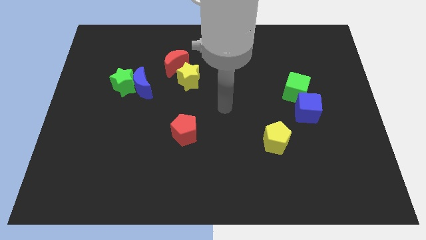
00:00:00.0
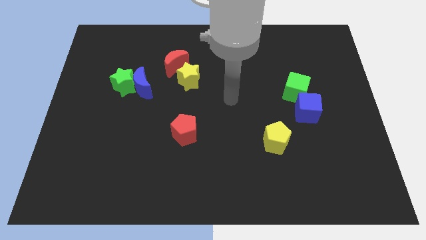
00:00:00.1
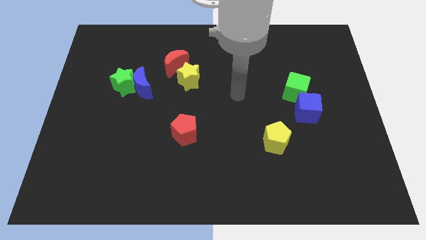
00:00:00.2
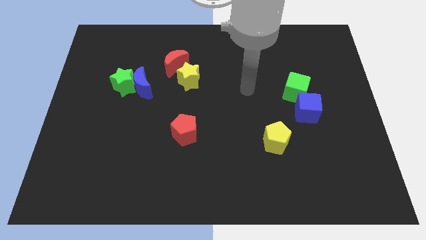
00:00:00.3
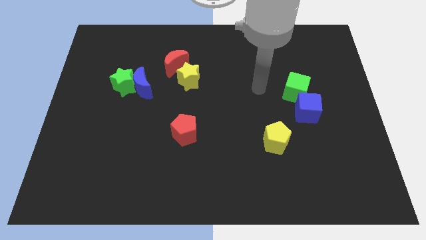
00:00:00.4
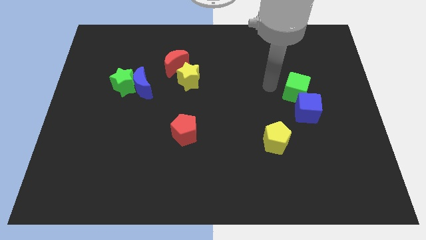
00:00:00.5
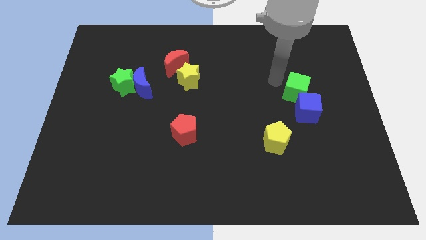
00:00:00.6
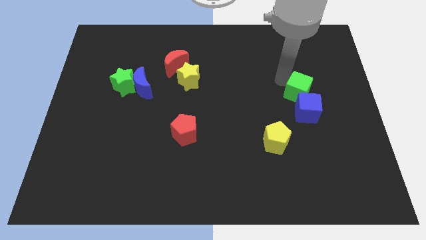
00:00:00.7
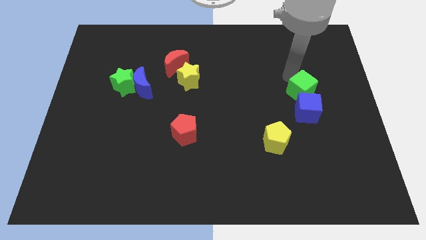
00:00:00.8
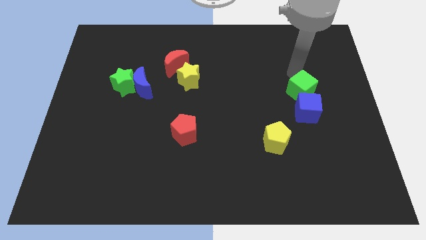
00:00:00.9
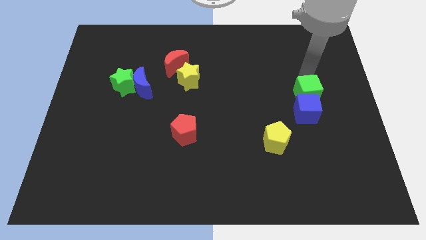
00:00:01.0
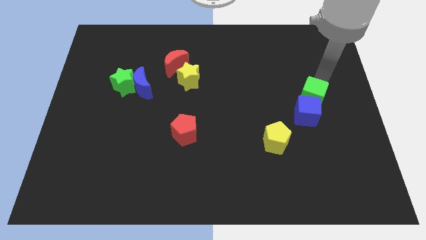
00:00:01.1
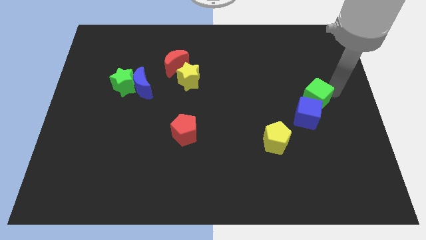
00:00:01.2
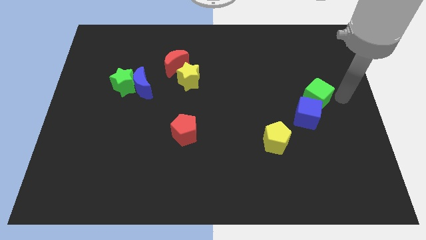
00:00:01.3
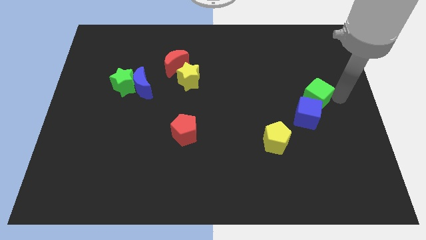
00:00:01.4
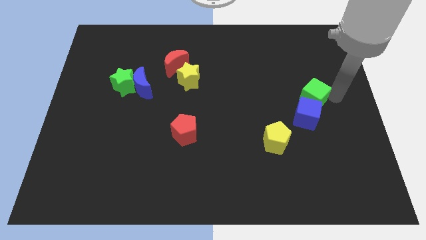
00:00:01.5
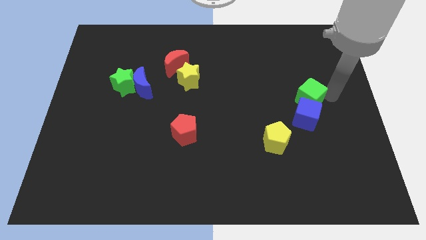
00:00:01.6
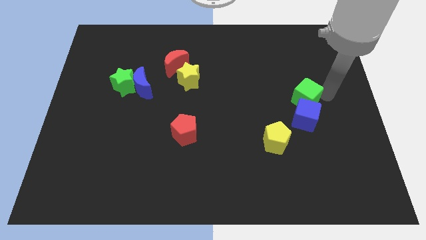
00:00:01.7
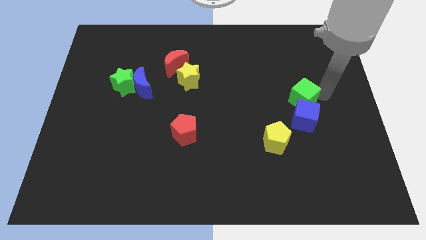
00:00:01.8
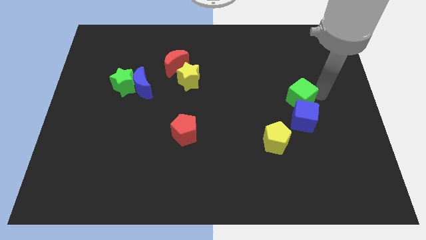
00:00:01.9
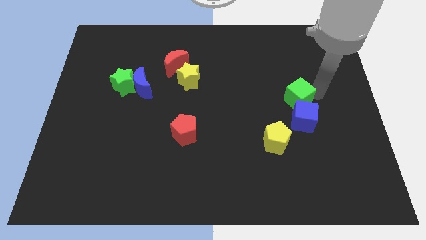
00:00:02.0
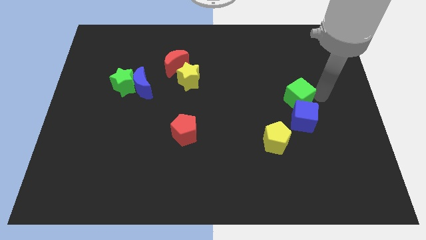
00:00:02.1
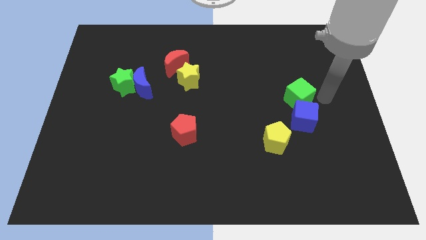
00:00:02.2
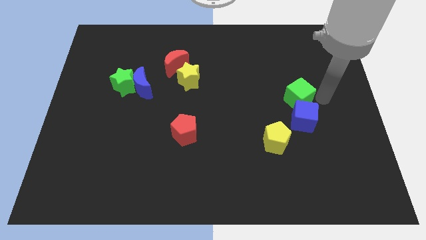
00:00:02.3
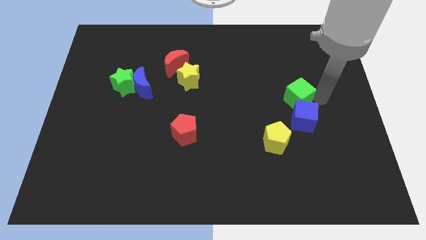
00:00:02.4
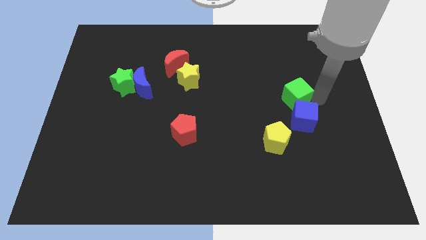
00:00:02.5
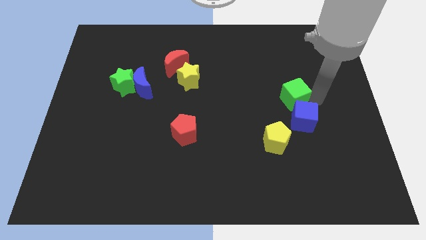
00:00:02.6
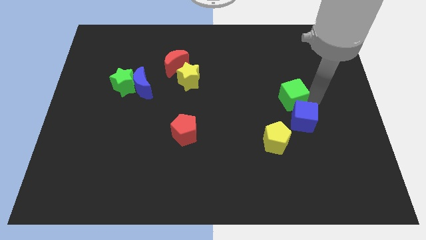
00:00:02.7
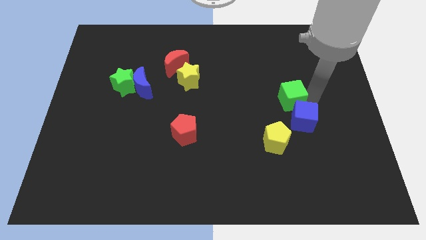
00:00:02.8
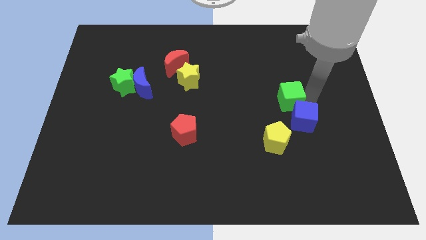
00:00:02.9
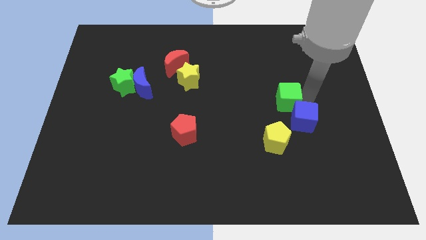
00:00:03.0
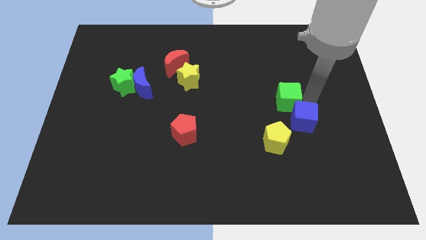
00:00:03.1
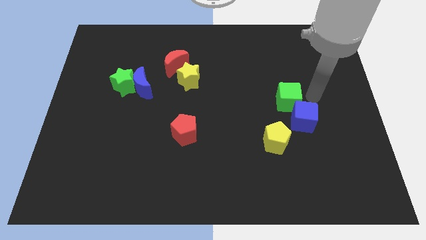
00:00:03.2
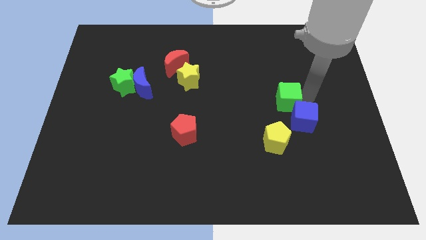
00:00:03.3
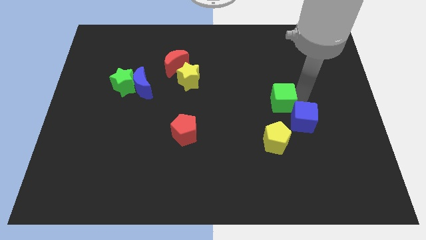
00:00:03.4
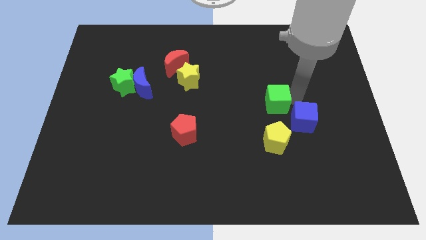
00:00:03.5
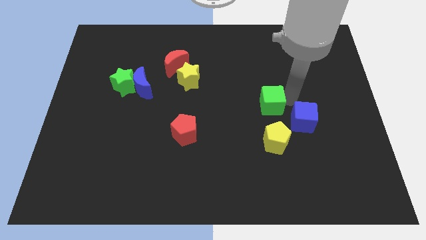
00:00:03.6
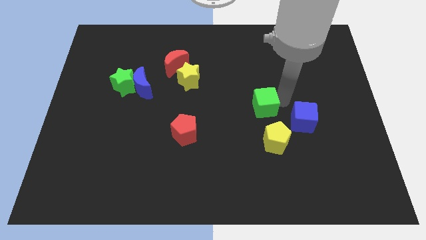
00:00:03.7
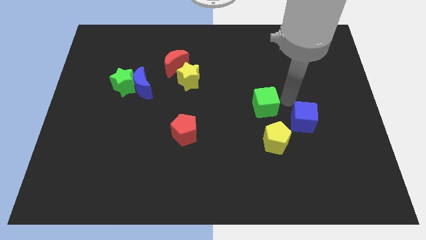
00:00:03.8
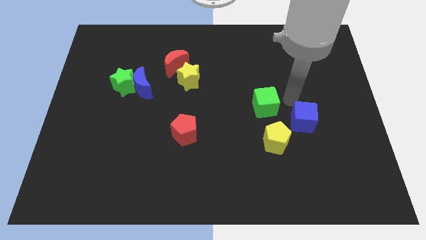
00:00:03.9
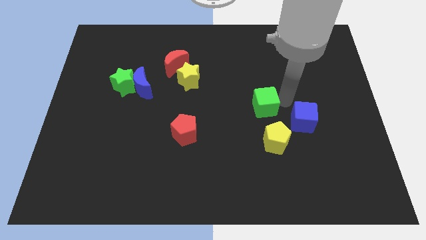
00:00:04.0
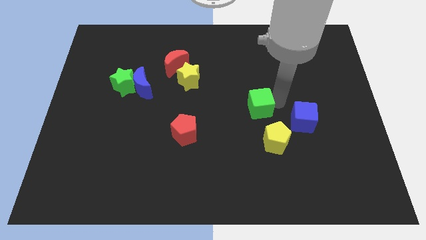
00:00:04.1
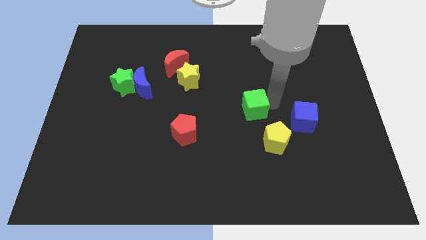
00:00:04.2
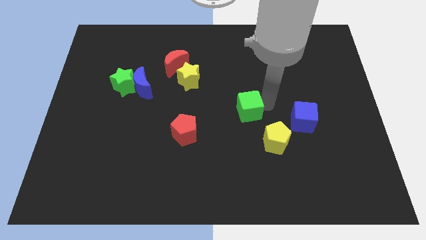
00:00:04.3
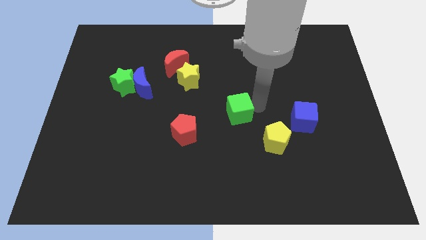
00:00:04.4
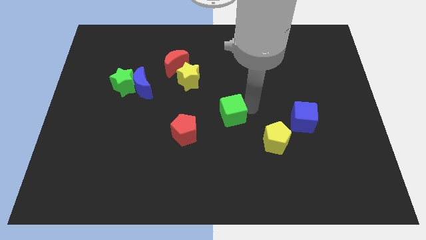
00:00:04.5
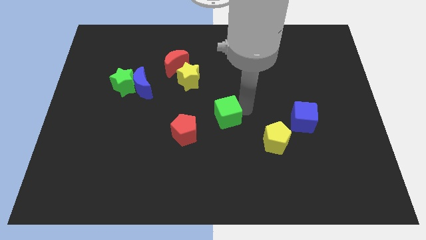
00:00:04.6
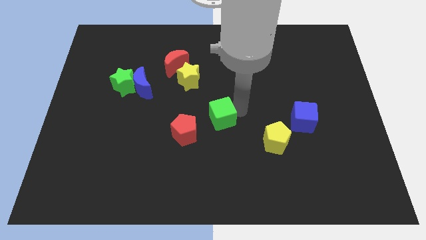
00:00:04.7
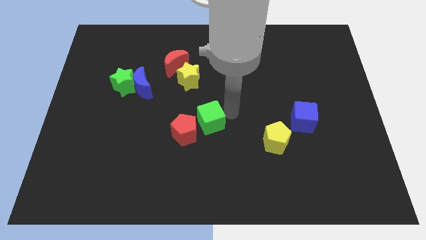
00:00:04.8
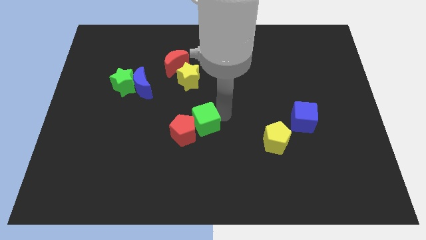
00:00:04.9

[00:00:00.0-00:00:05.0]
move the green cube next to the red pentagon

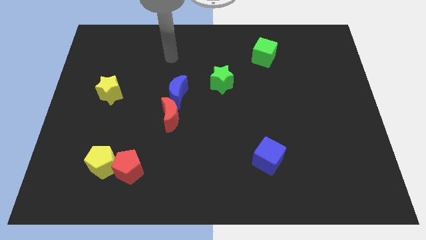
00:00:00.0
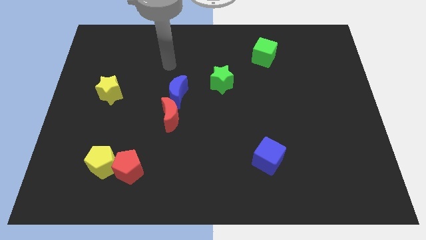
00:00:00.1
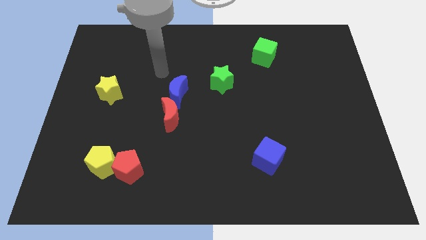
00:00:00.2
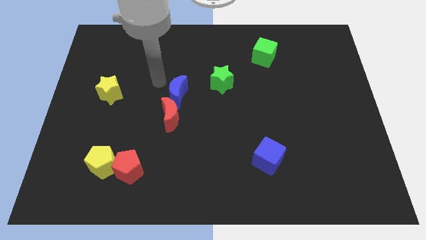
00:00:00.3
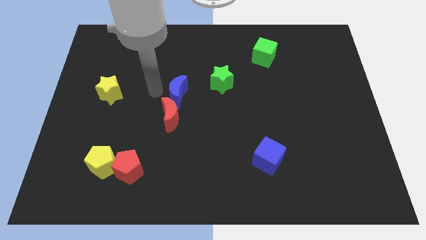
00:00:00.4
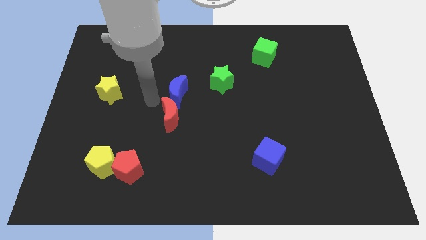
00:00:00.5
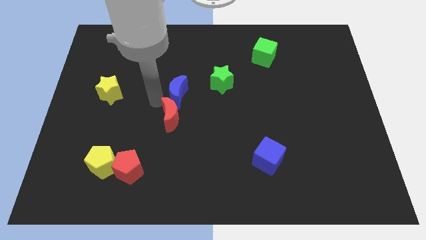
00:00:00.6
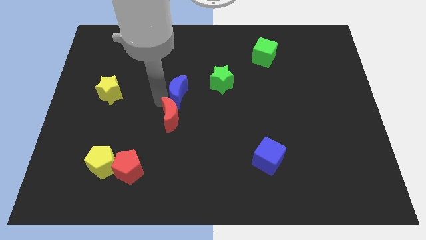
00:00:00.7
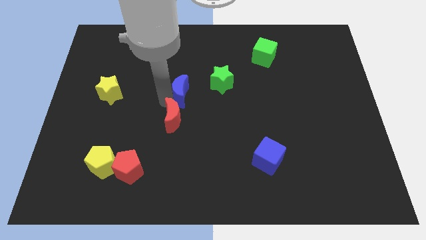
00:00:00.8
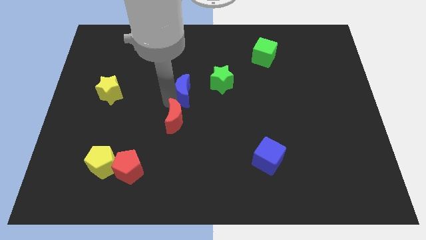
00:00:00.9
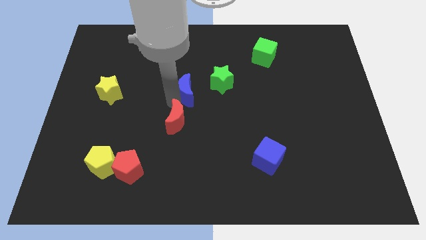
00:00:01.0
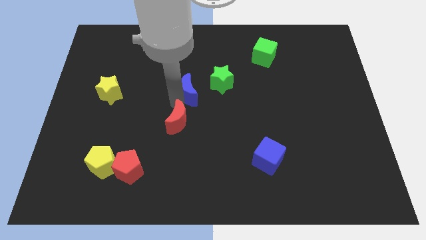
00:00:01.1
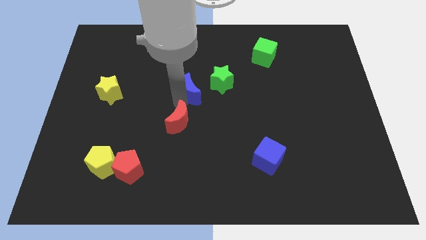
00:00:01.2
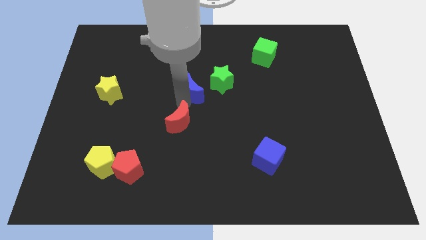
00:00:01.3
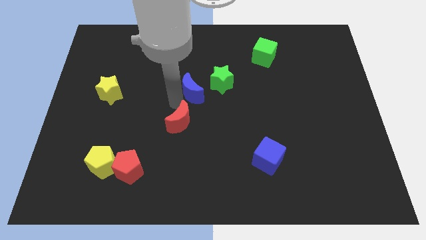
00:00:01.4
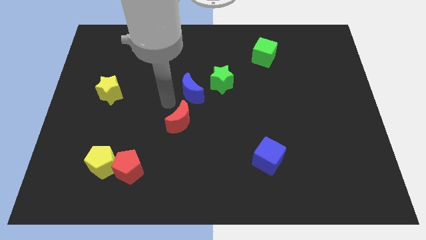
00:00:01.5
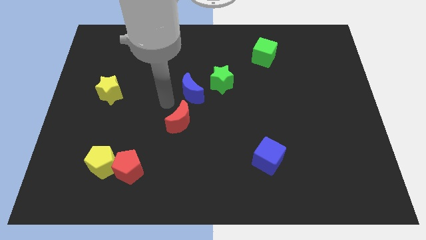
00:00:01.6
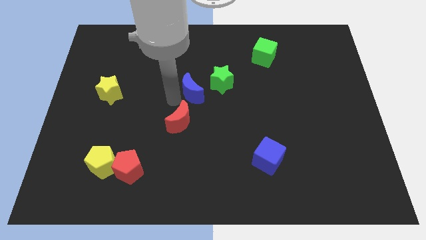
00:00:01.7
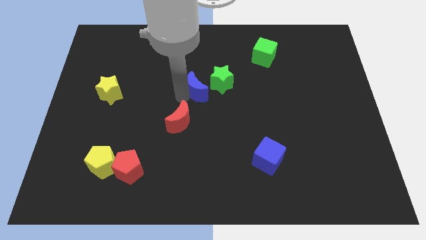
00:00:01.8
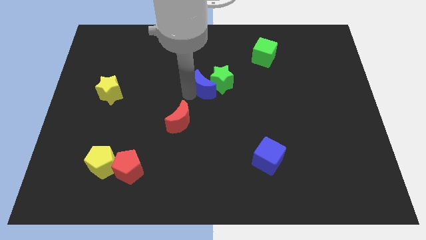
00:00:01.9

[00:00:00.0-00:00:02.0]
slide the blue moon next to the green star
